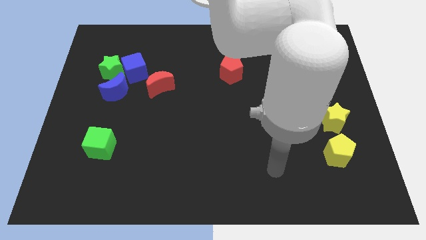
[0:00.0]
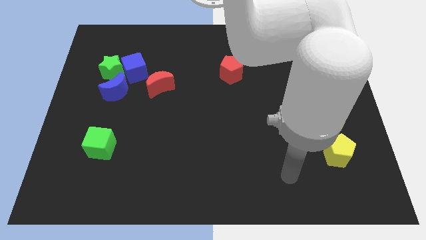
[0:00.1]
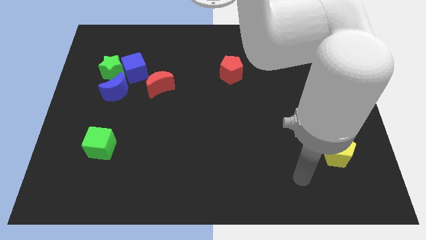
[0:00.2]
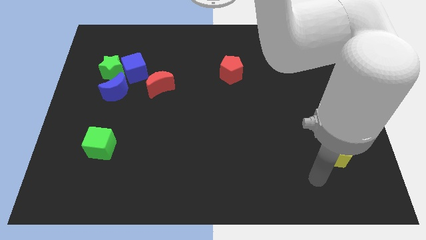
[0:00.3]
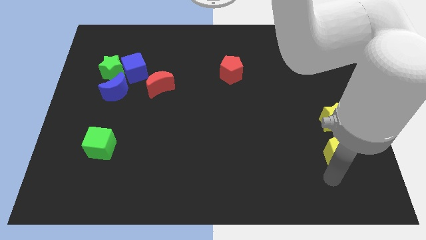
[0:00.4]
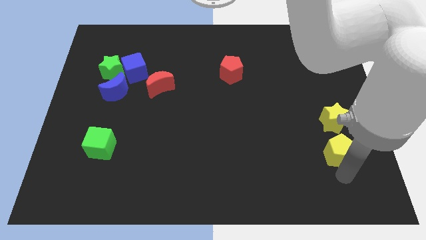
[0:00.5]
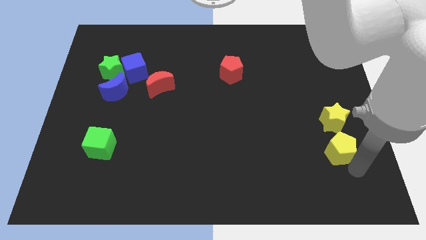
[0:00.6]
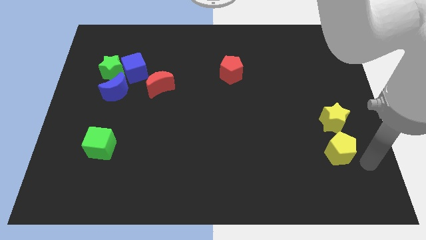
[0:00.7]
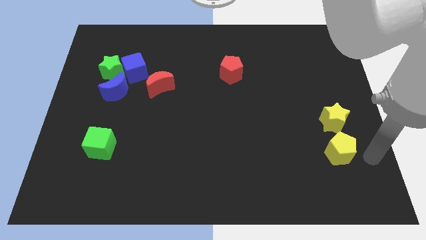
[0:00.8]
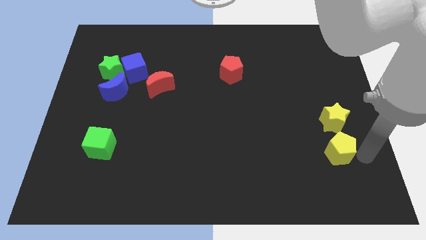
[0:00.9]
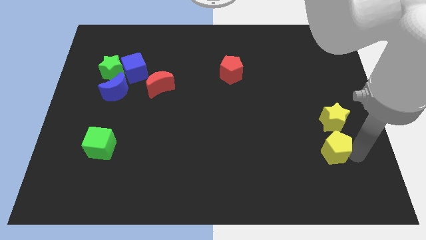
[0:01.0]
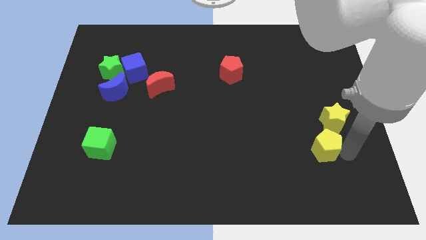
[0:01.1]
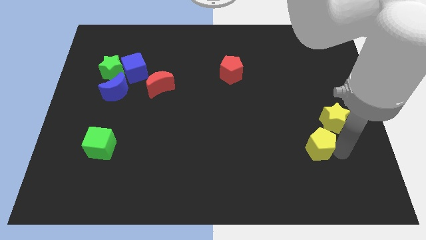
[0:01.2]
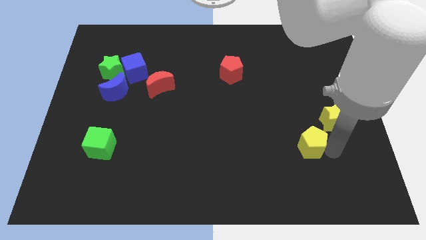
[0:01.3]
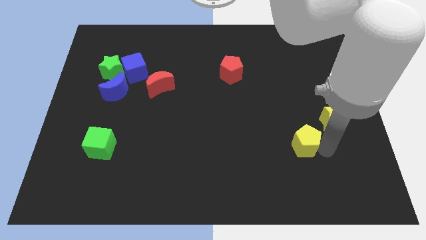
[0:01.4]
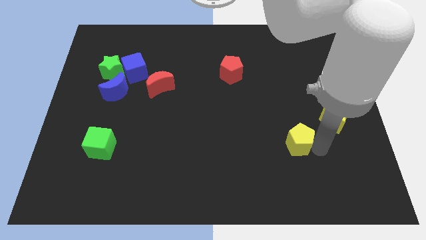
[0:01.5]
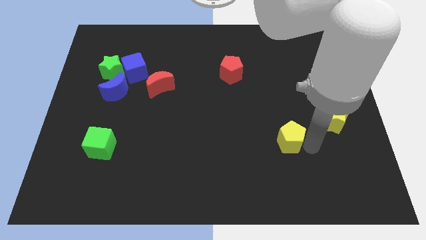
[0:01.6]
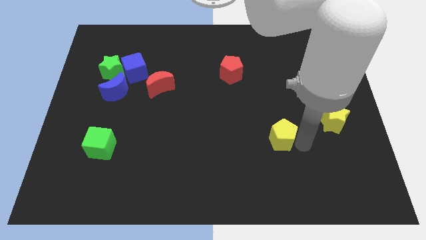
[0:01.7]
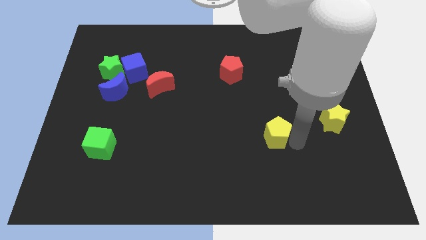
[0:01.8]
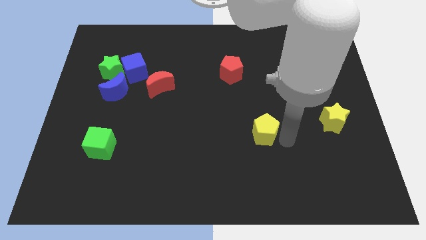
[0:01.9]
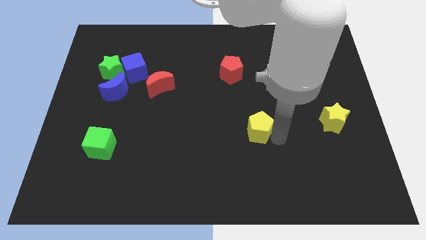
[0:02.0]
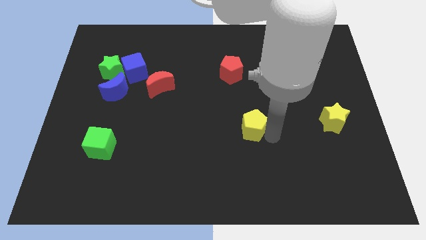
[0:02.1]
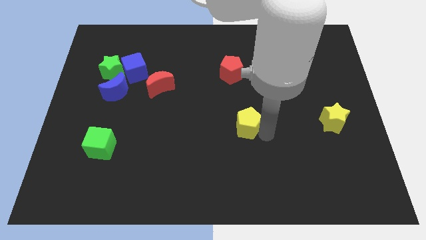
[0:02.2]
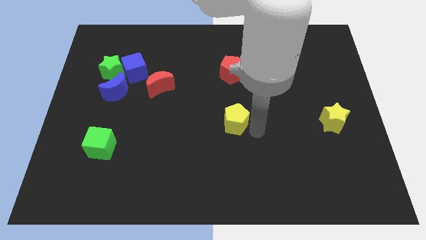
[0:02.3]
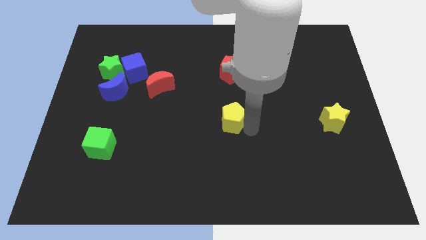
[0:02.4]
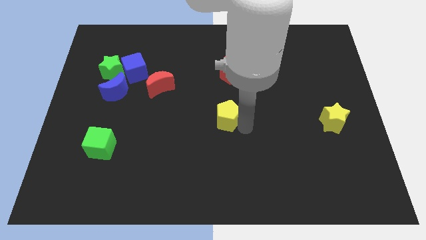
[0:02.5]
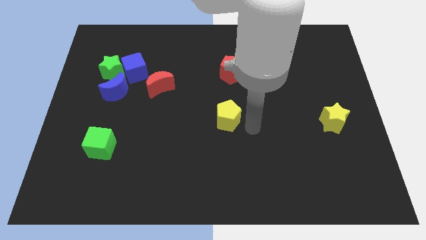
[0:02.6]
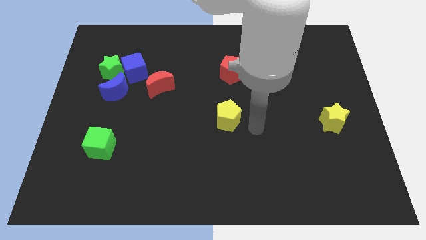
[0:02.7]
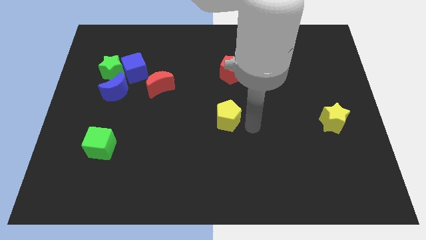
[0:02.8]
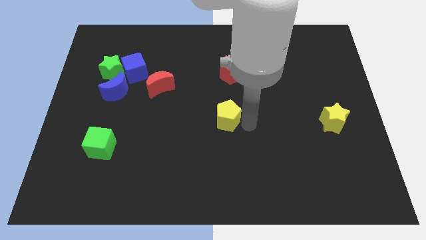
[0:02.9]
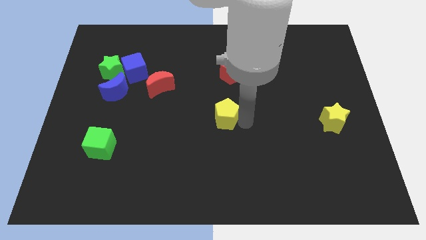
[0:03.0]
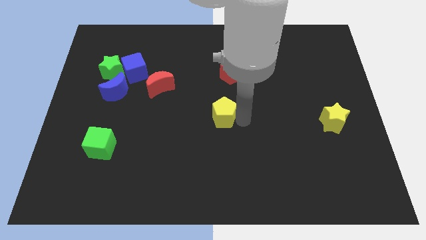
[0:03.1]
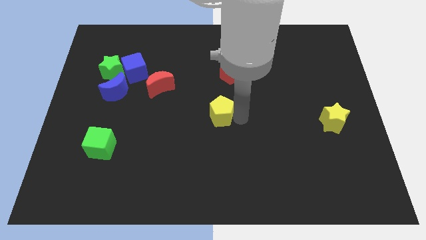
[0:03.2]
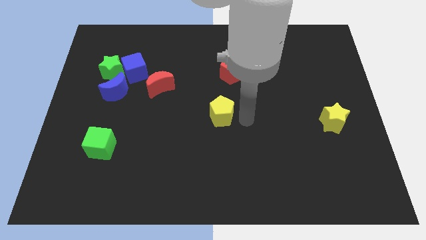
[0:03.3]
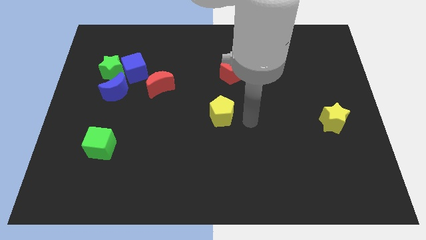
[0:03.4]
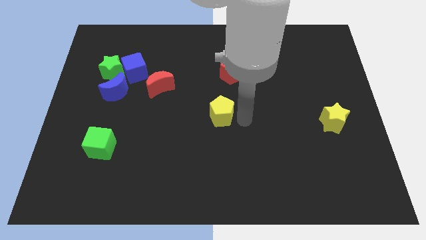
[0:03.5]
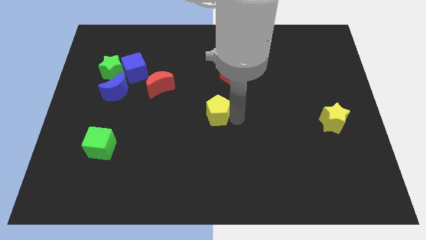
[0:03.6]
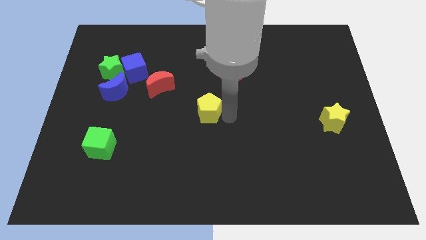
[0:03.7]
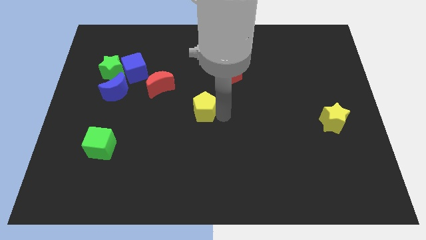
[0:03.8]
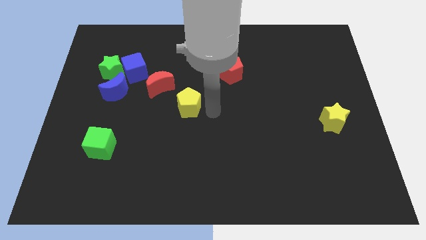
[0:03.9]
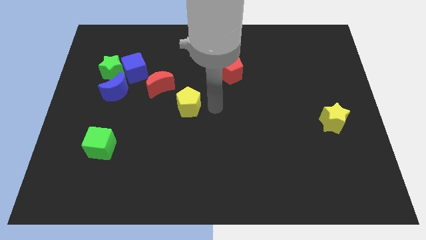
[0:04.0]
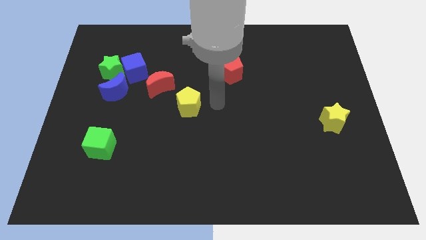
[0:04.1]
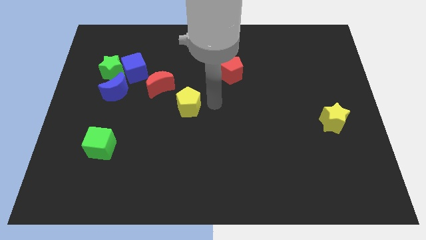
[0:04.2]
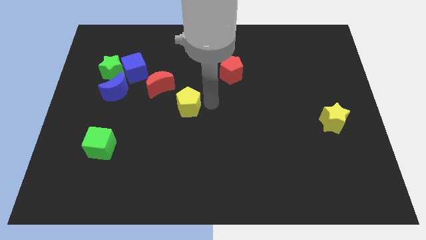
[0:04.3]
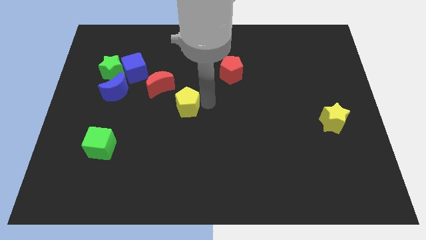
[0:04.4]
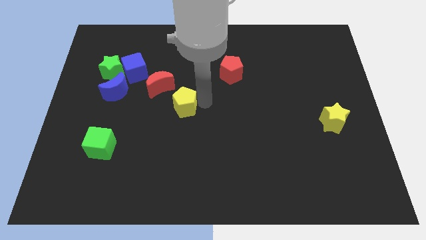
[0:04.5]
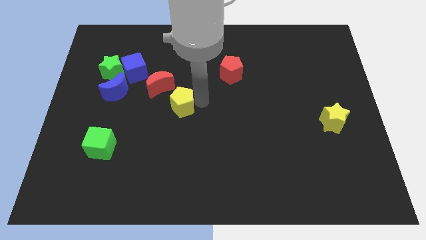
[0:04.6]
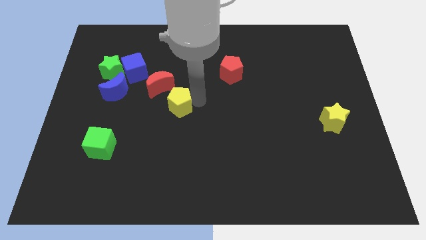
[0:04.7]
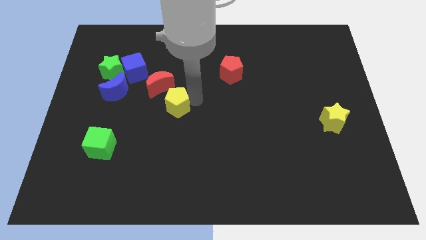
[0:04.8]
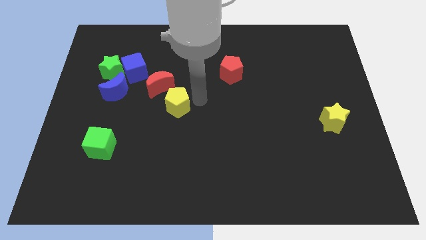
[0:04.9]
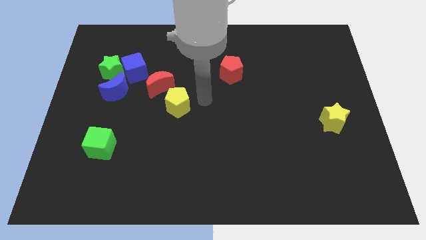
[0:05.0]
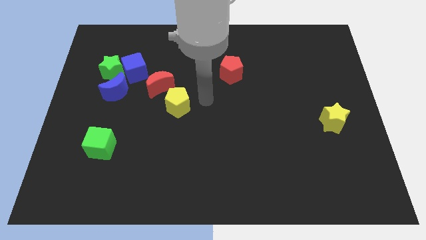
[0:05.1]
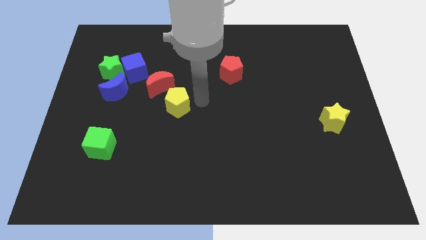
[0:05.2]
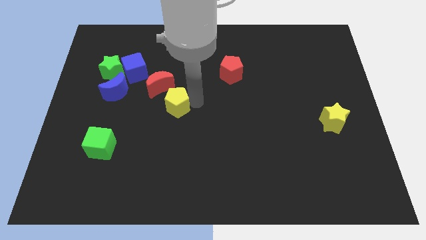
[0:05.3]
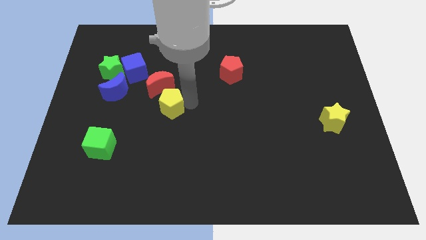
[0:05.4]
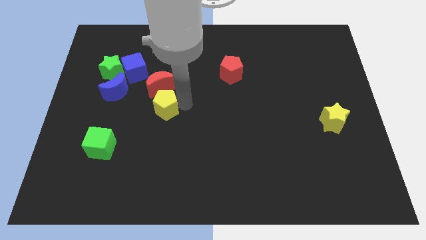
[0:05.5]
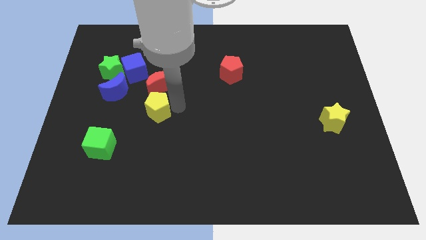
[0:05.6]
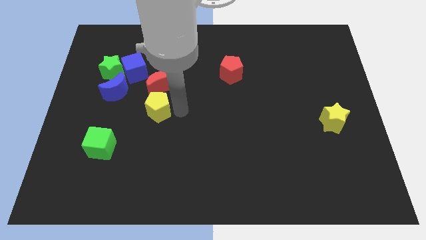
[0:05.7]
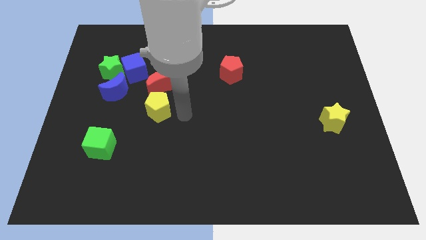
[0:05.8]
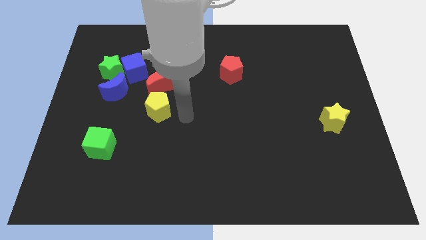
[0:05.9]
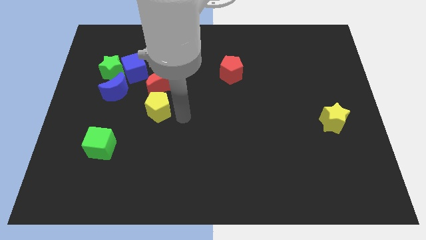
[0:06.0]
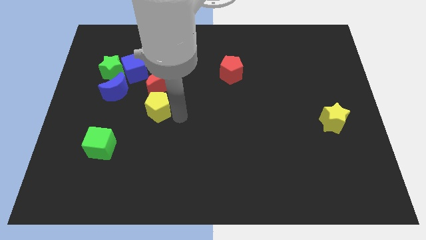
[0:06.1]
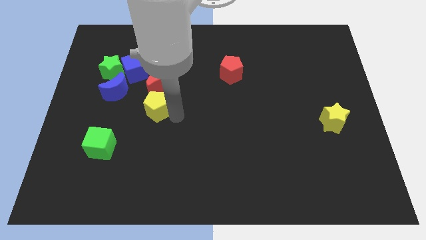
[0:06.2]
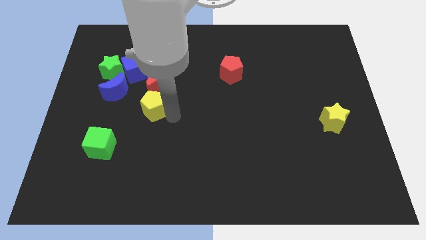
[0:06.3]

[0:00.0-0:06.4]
push the yellow pentagon to the bottom left of the red moon
